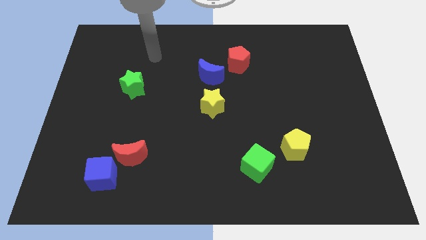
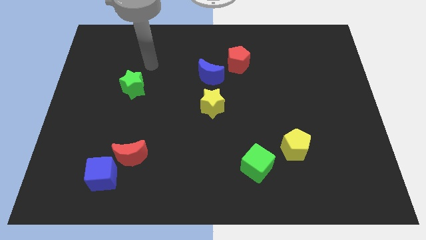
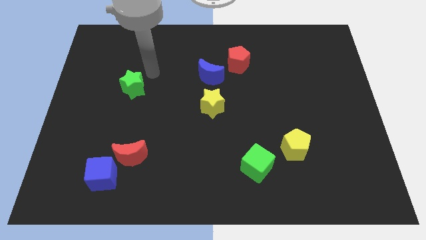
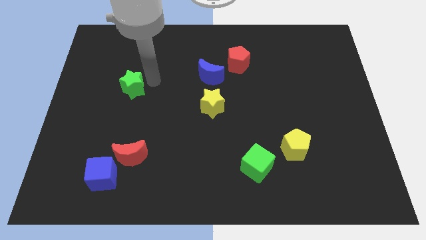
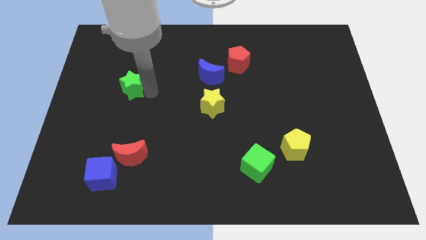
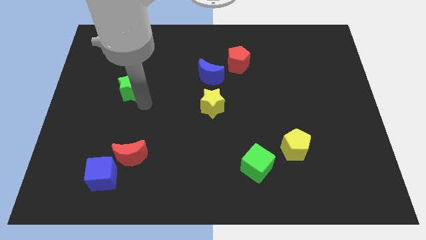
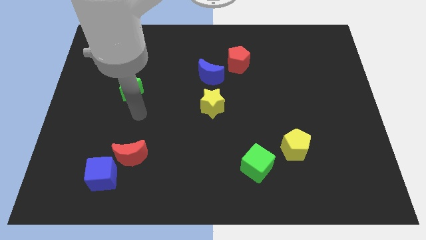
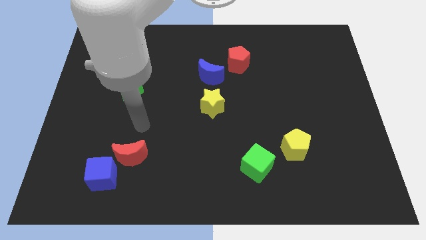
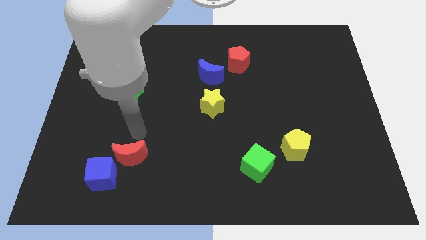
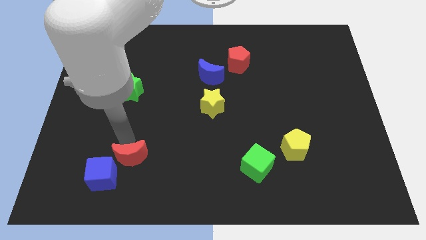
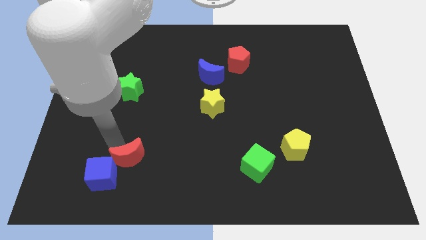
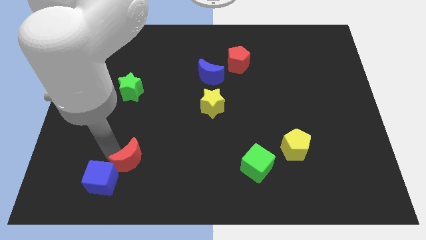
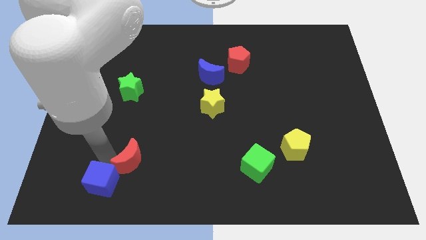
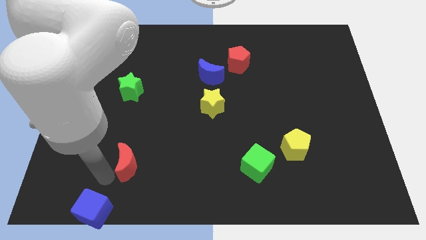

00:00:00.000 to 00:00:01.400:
separate the red moon from the blue cube

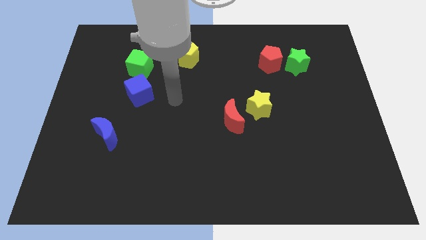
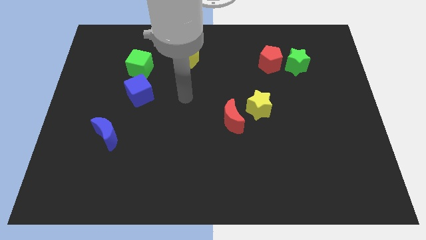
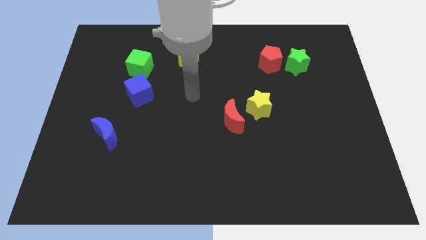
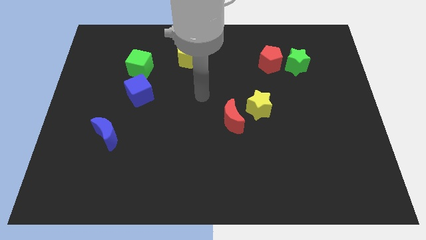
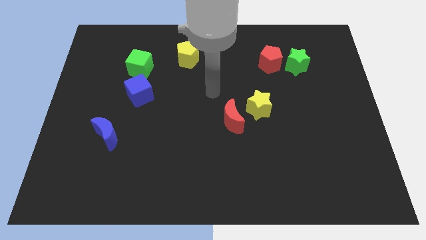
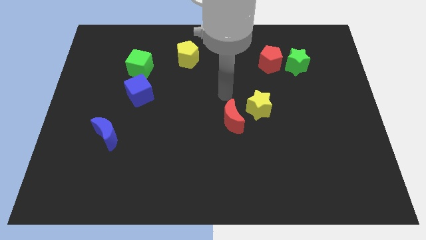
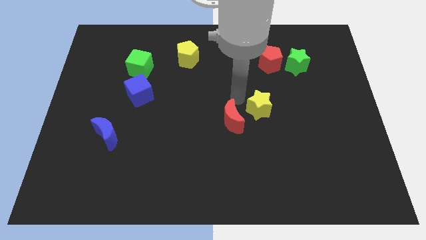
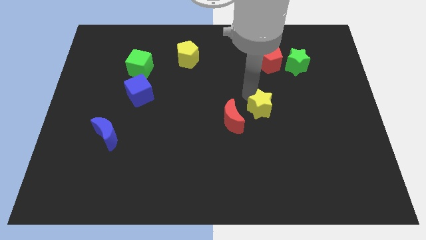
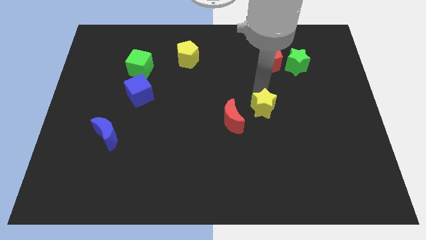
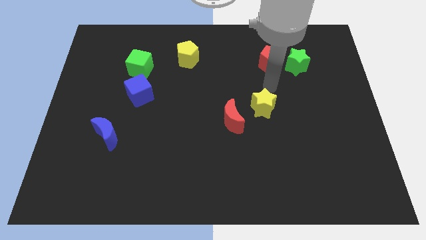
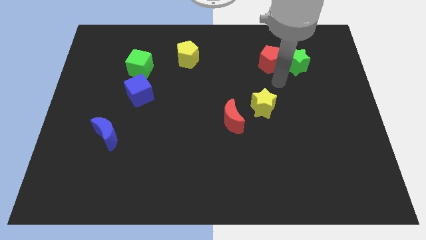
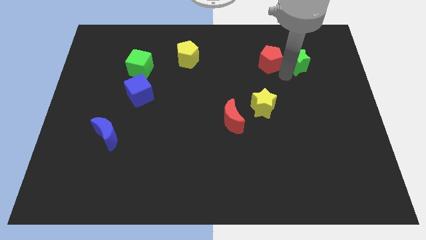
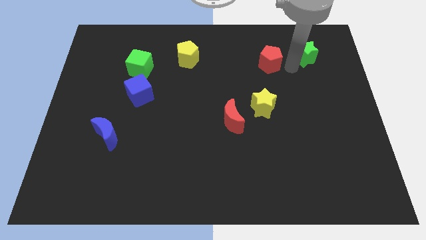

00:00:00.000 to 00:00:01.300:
pull the red pentagon apart from the green star

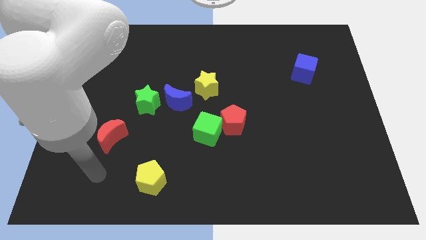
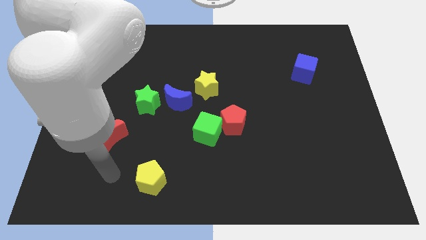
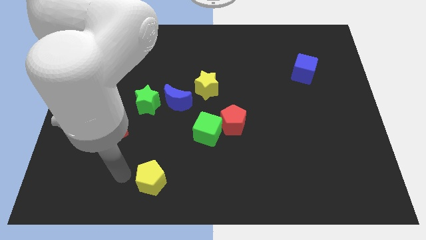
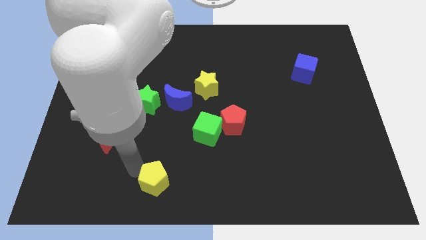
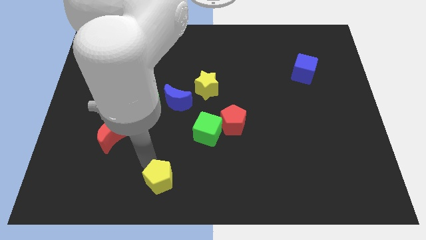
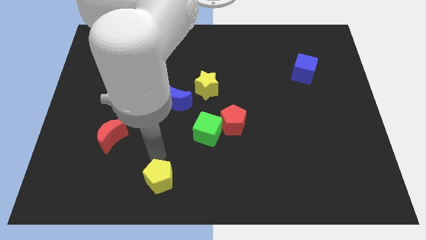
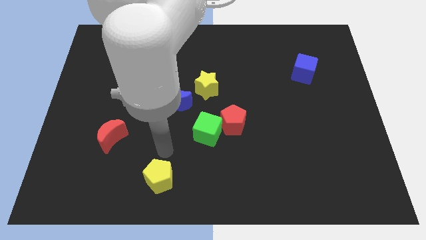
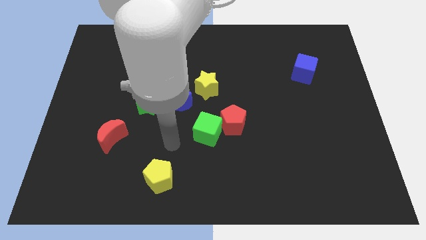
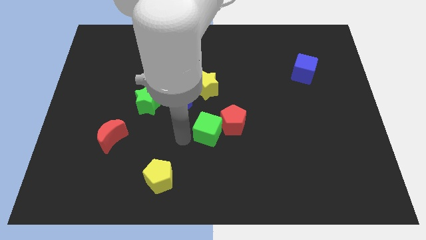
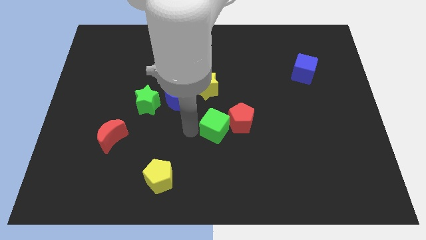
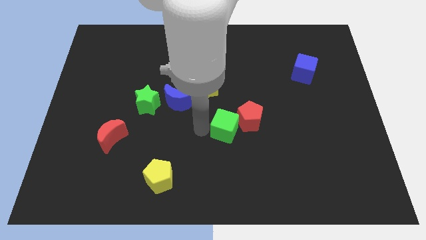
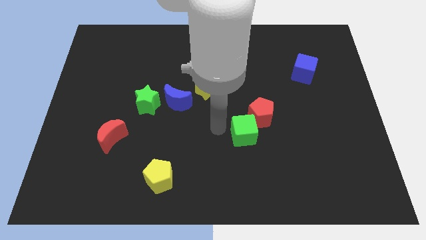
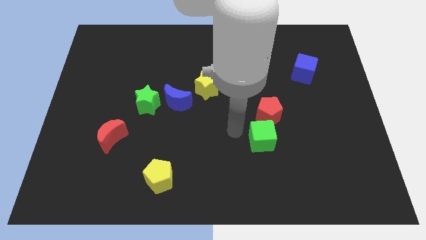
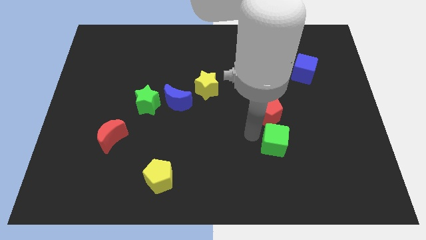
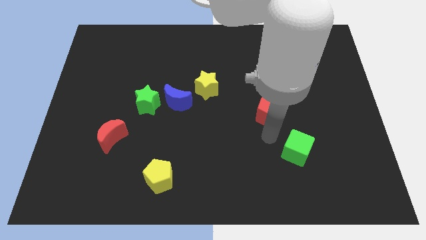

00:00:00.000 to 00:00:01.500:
move the red pentagon away from the green cube

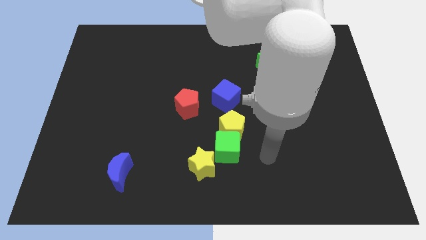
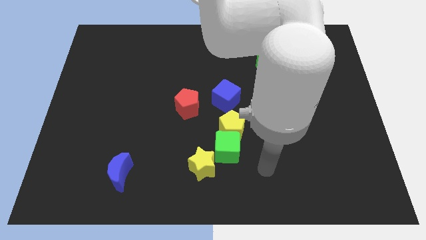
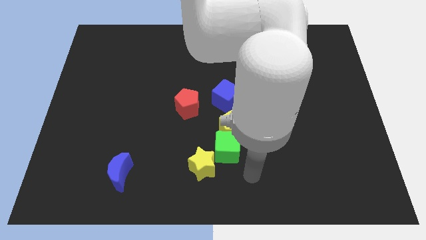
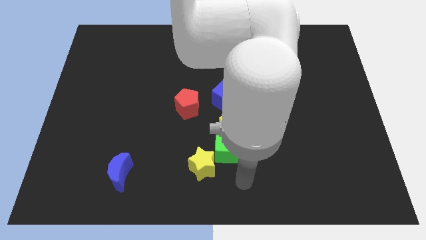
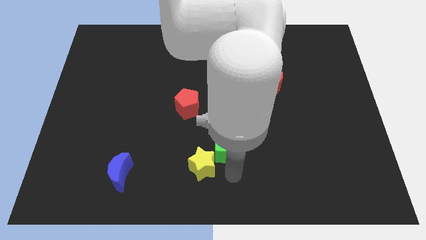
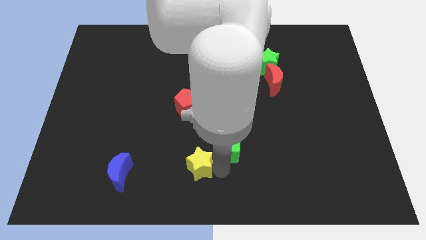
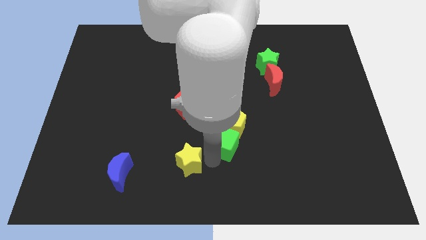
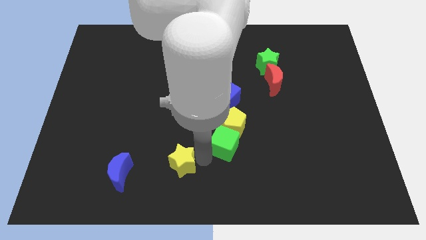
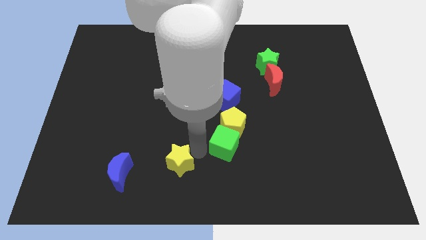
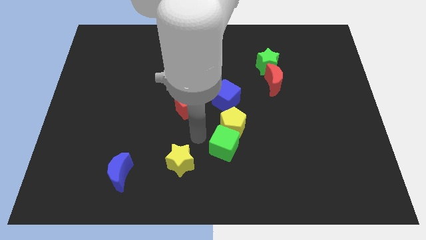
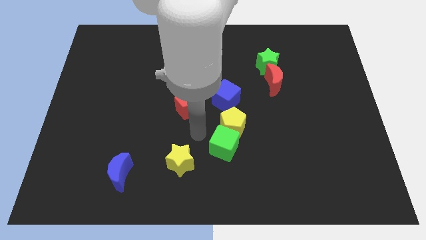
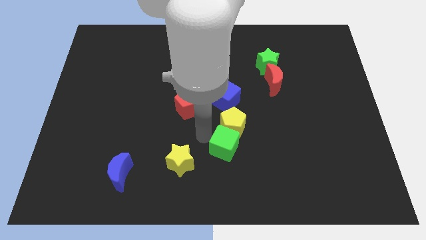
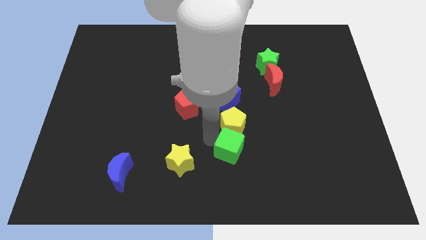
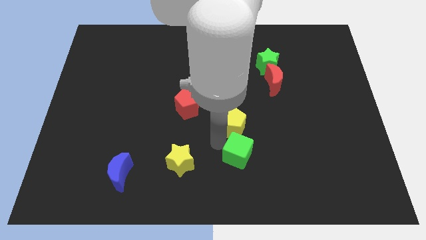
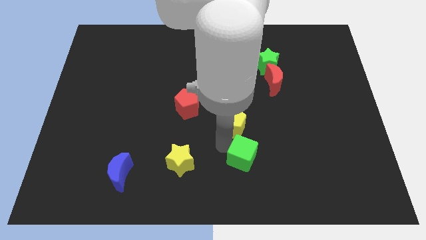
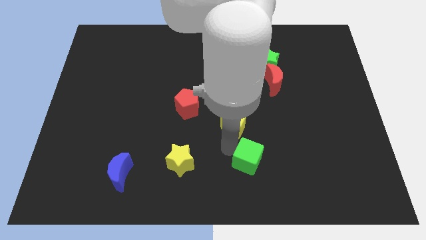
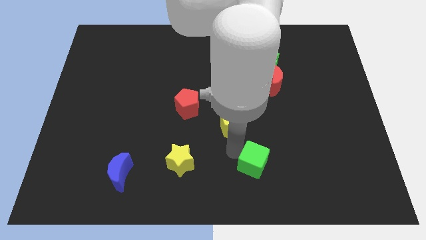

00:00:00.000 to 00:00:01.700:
move the green cube away from the yellow pentagon and yellow star

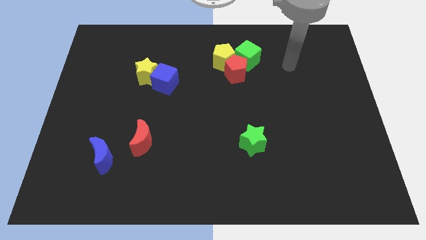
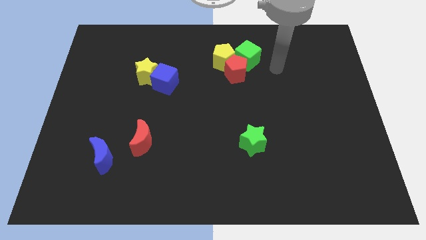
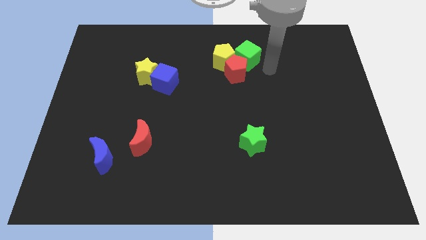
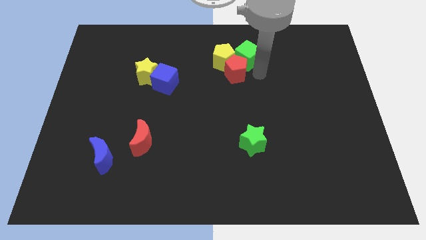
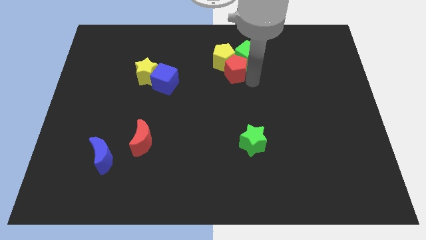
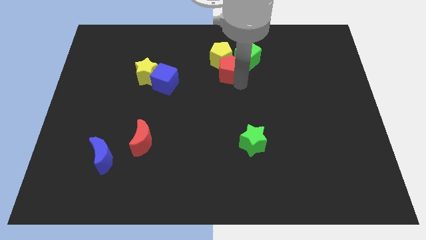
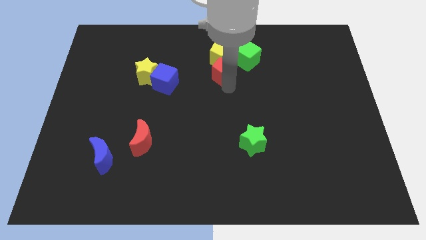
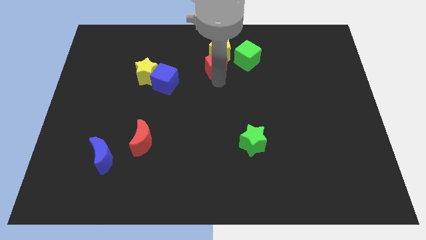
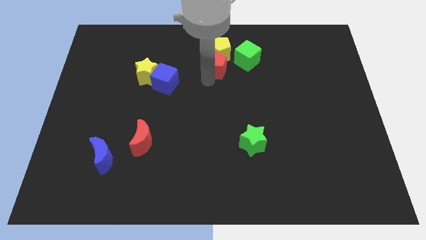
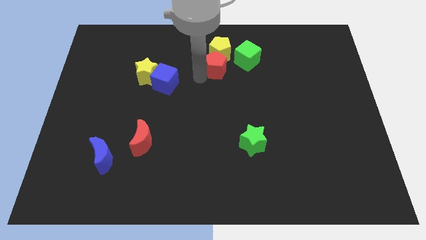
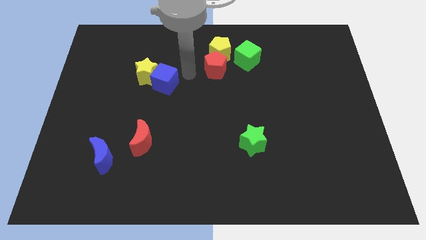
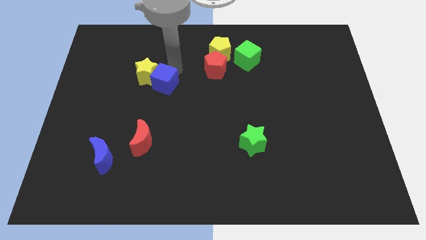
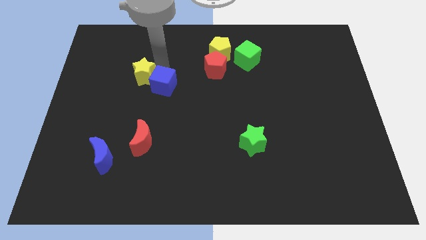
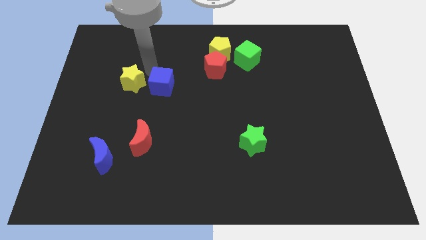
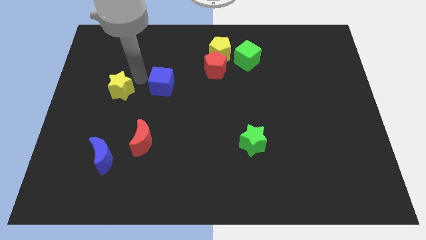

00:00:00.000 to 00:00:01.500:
pull the blue cube apart from the yellow star

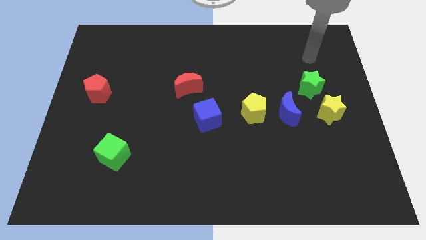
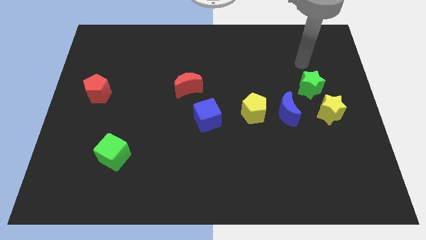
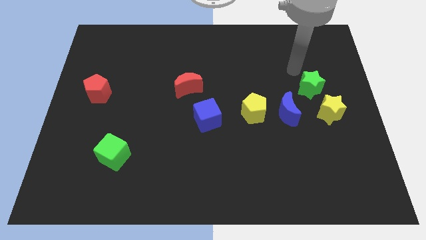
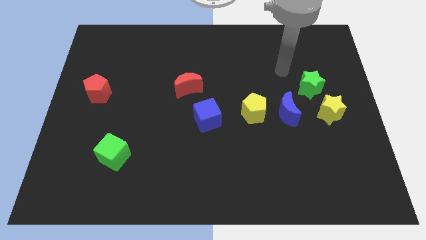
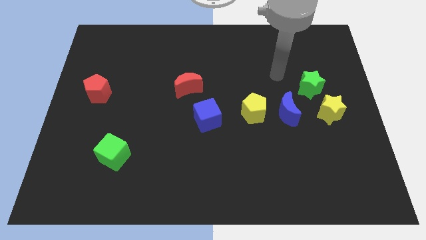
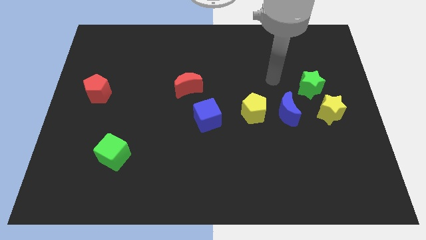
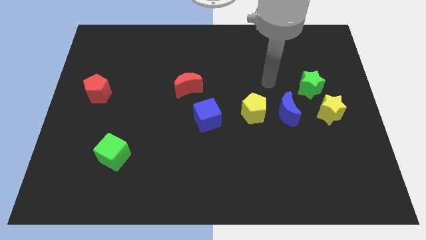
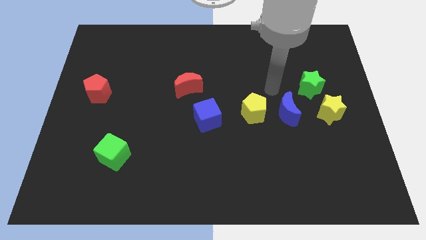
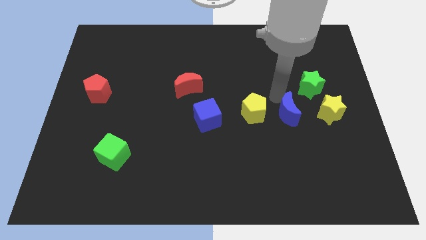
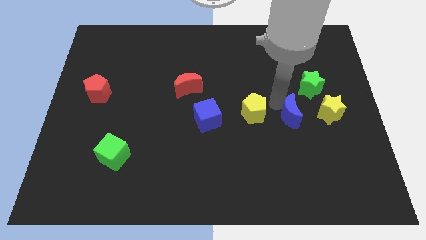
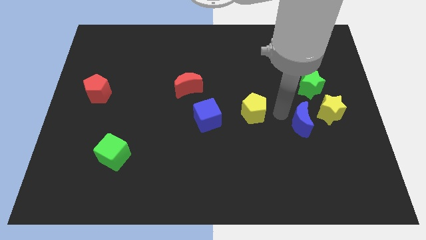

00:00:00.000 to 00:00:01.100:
pull the yellow pentagon apart from the blue moon

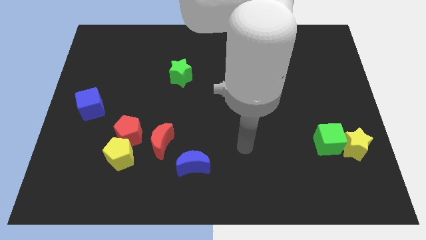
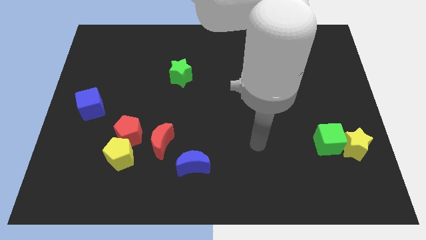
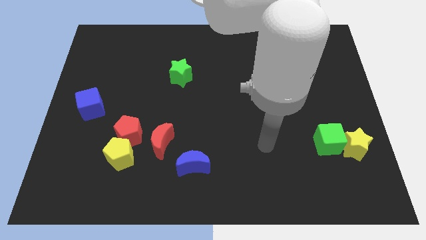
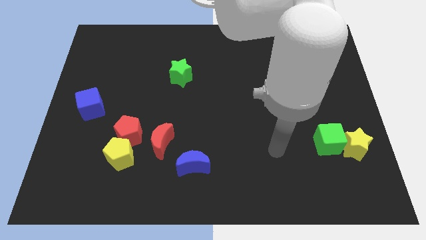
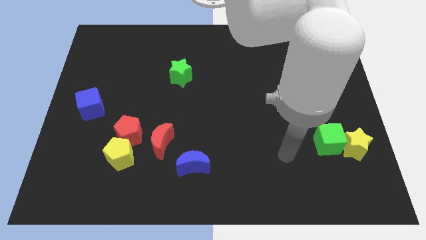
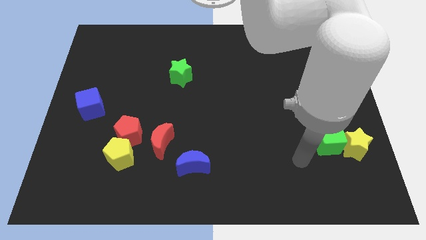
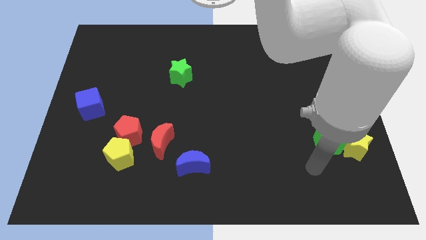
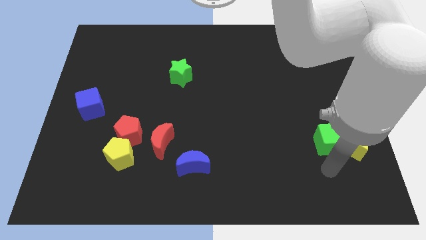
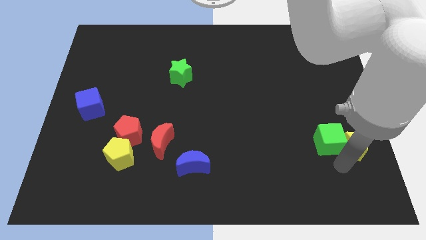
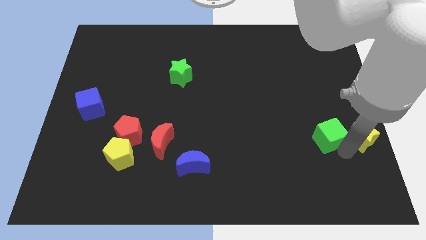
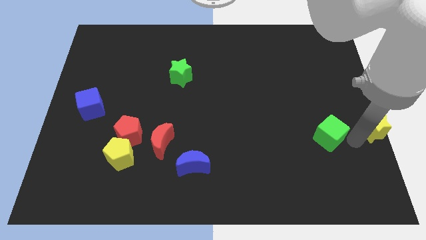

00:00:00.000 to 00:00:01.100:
separate the green cube from the yellow star
